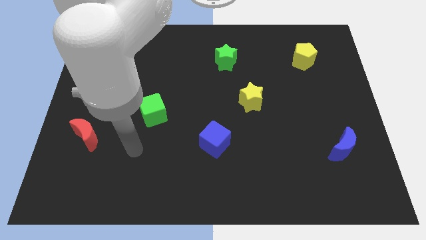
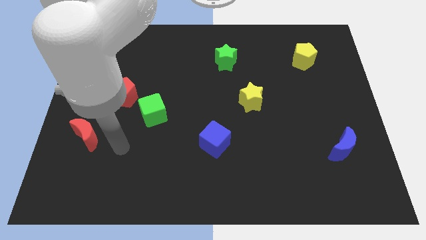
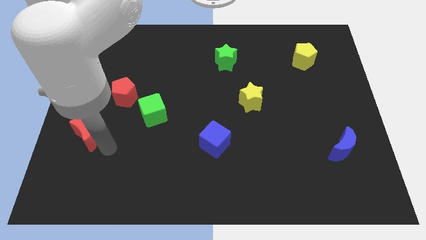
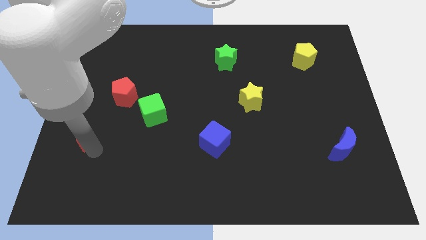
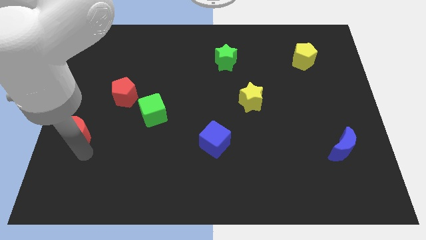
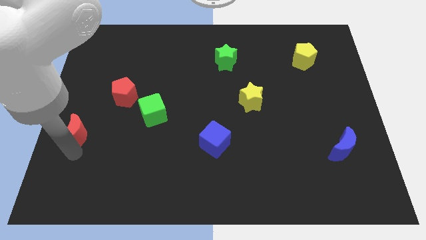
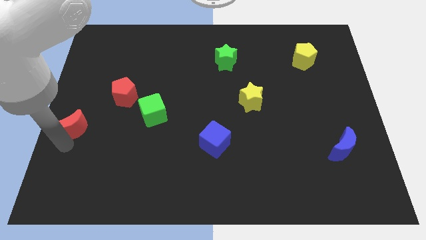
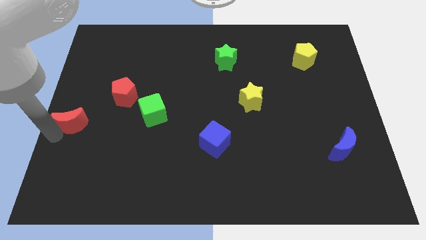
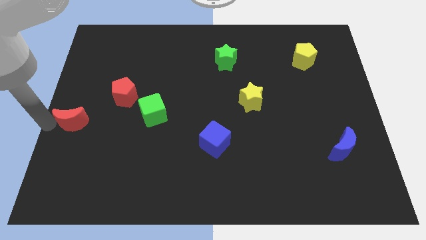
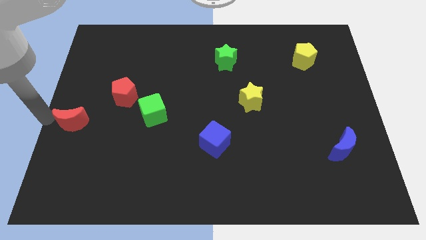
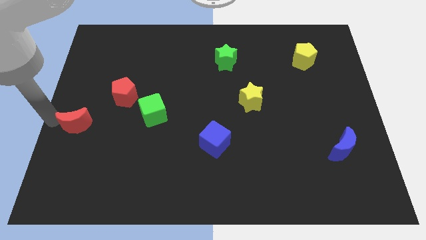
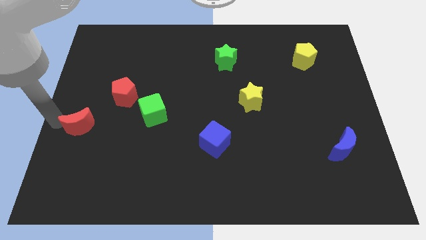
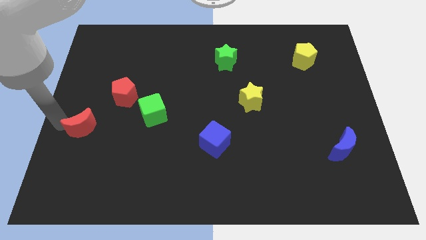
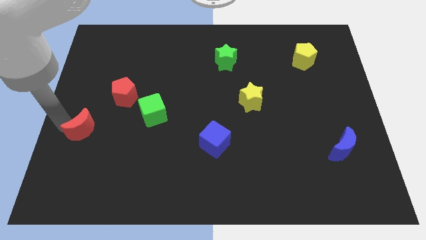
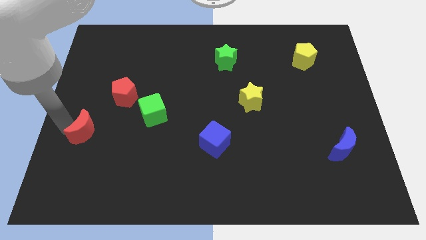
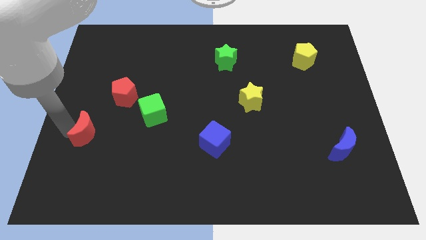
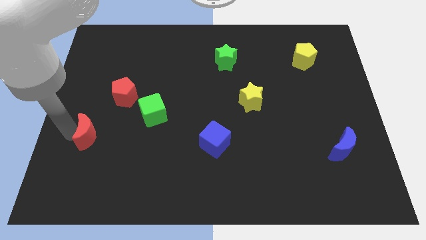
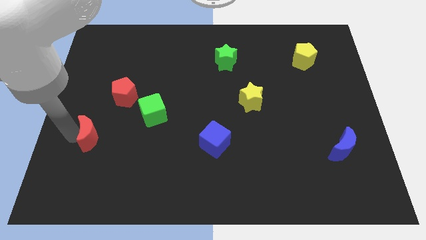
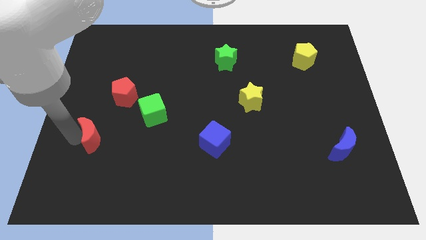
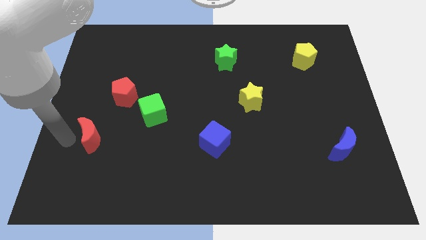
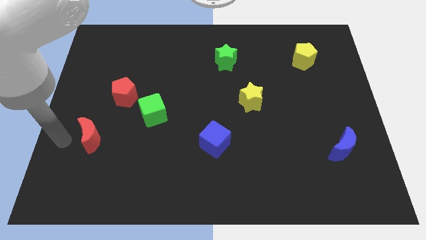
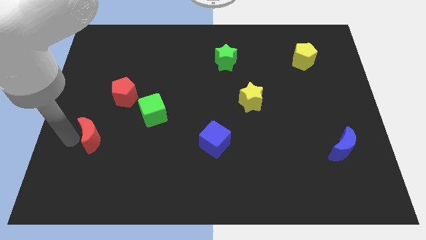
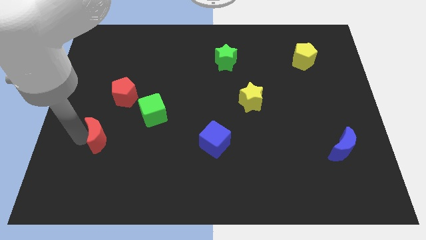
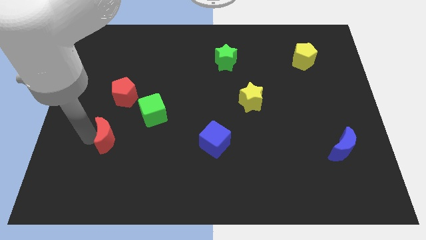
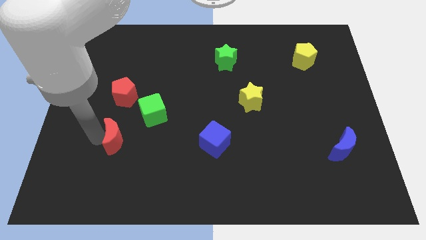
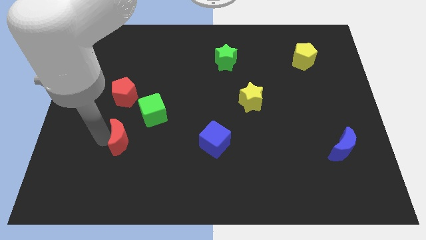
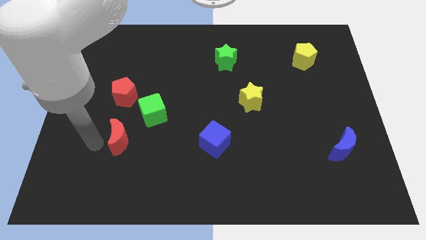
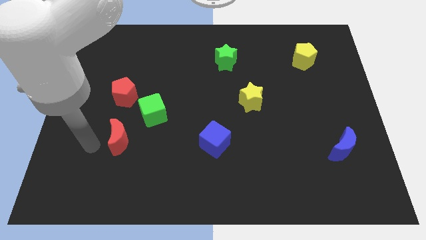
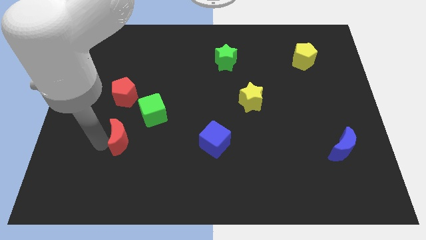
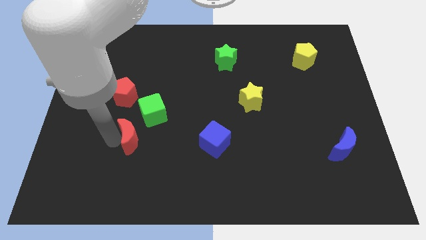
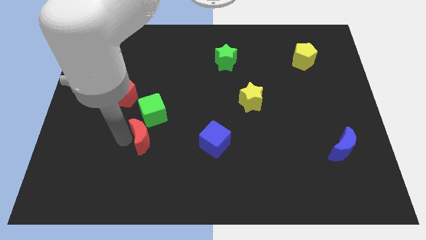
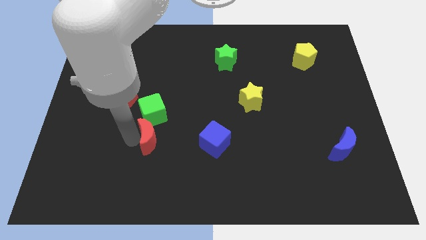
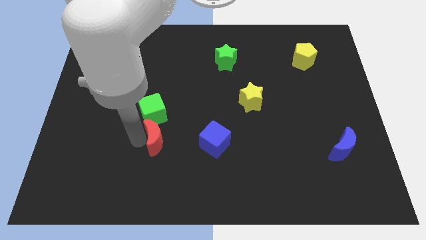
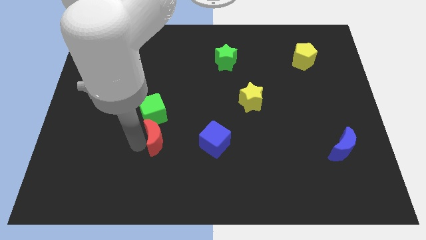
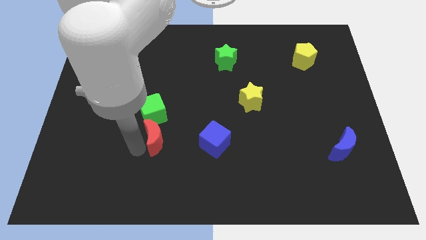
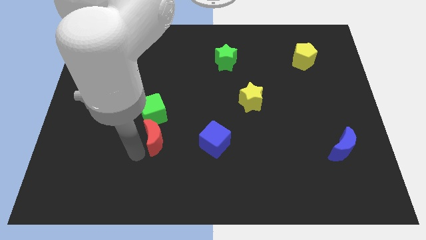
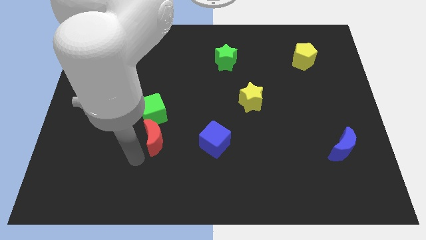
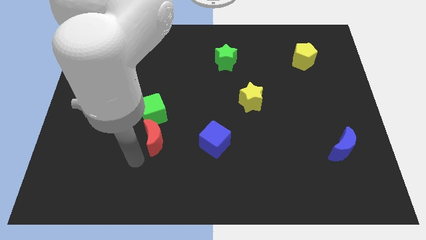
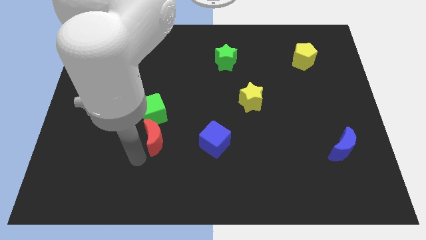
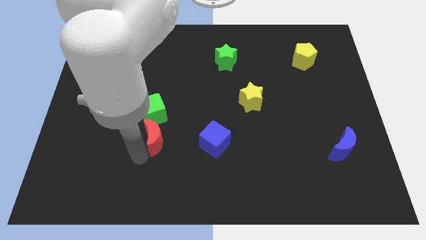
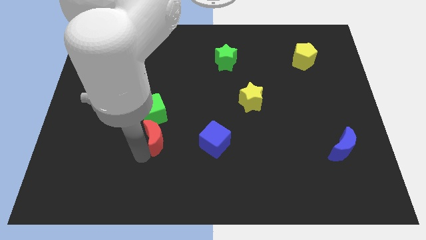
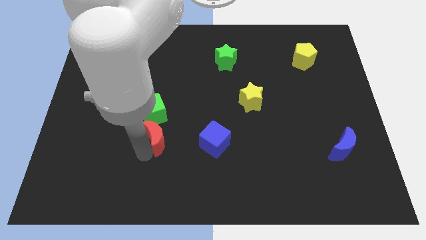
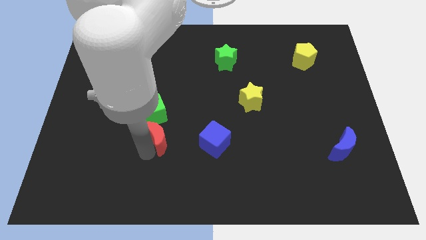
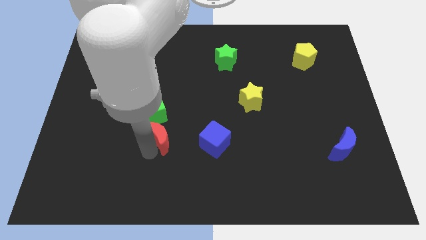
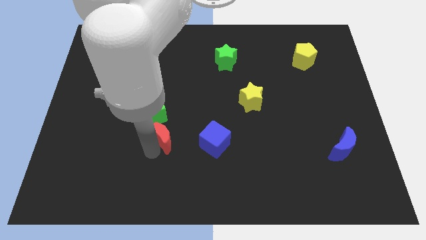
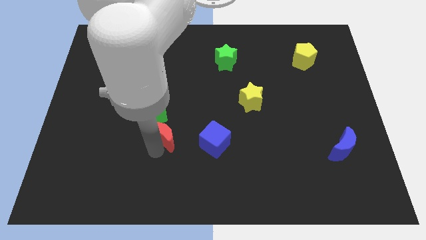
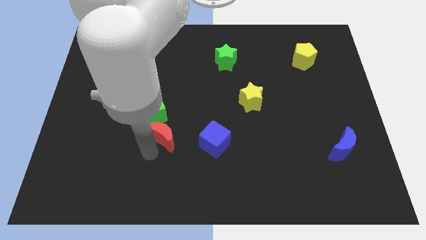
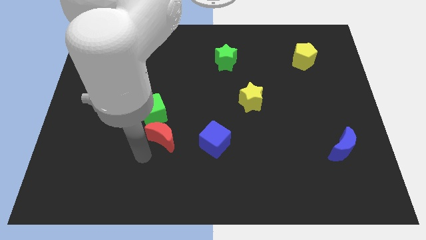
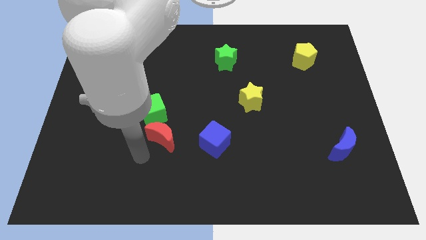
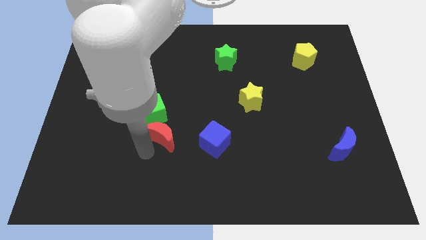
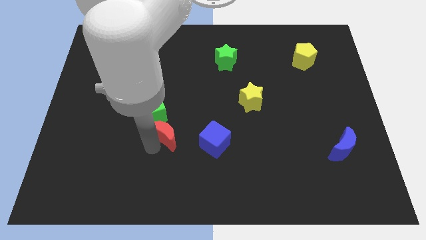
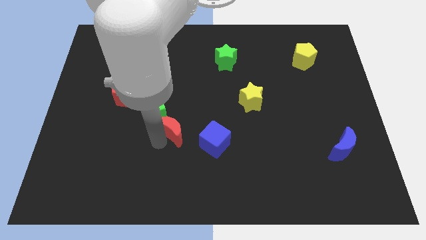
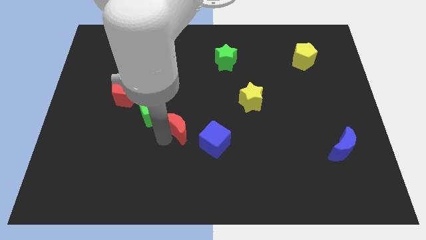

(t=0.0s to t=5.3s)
put the red moon to the right side of the green cube

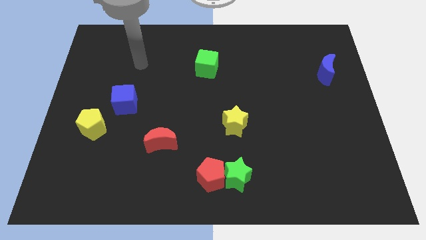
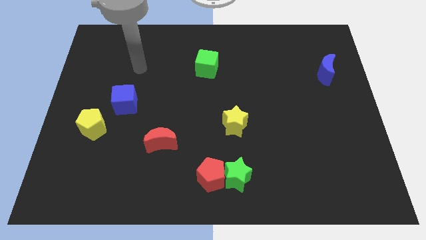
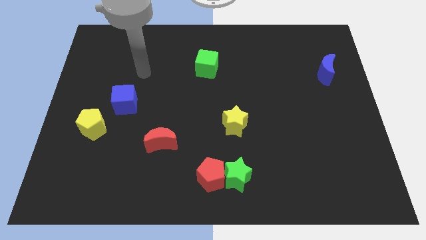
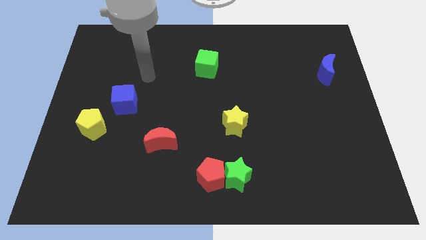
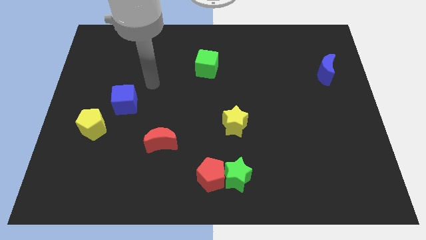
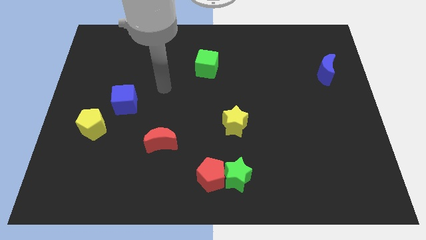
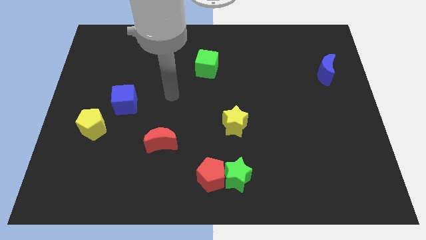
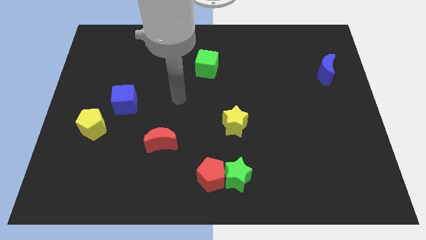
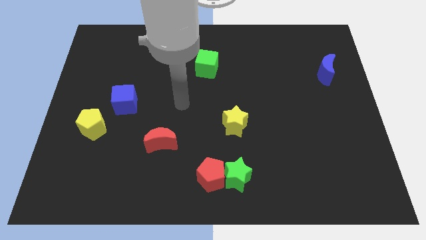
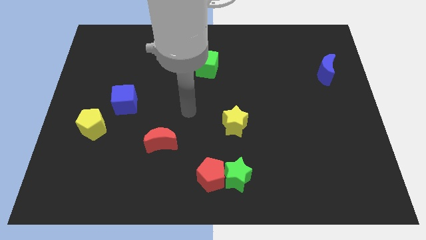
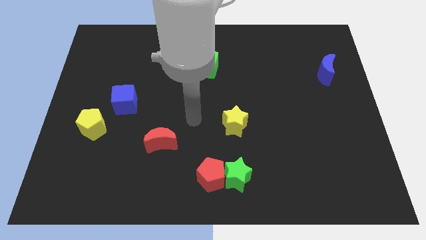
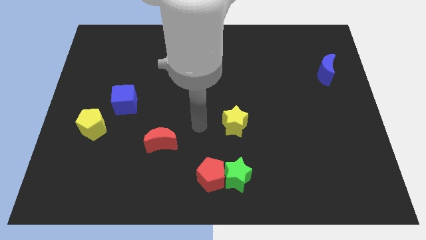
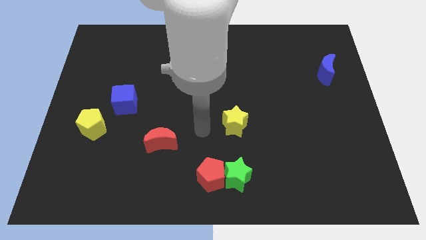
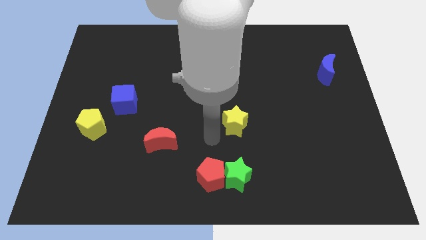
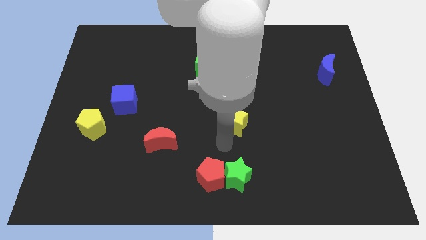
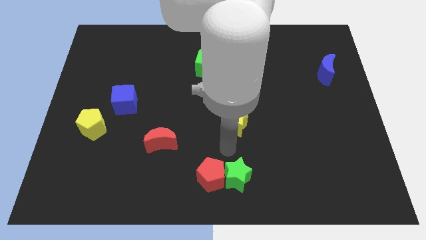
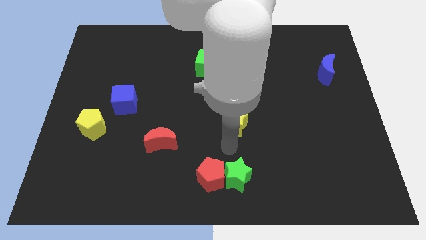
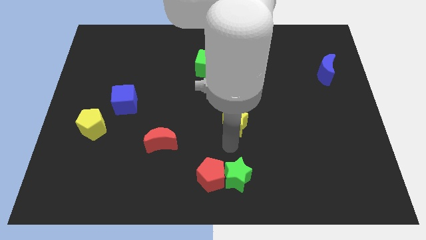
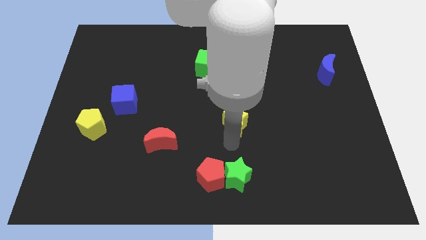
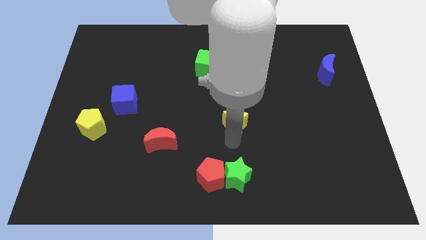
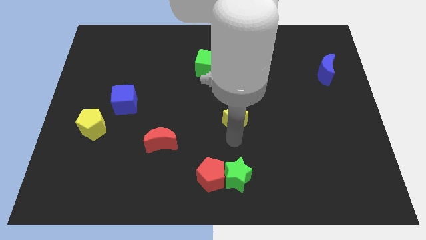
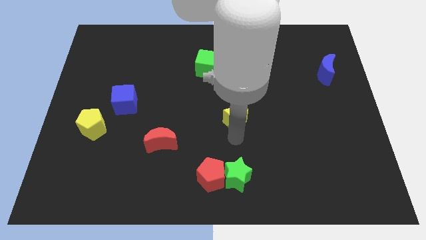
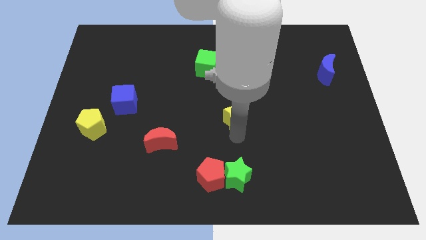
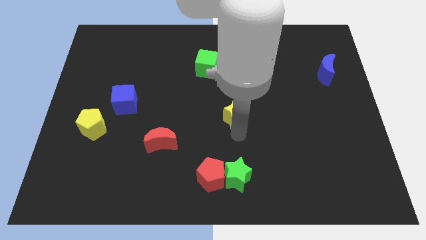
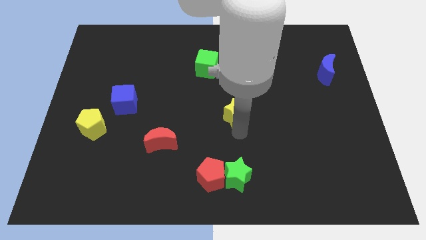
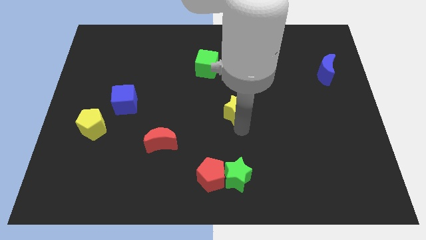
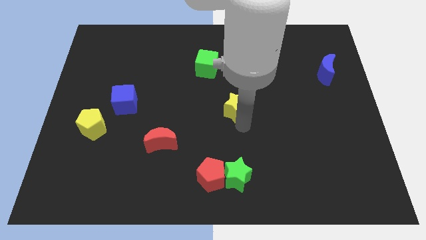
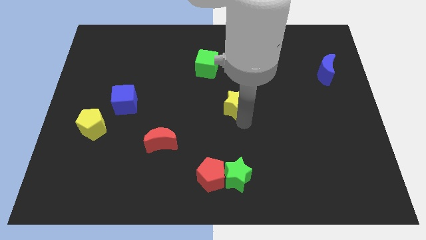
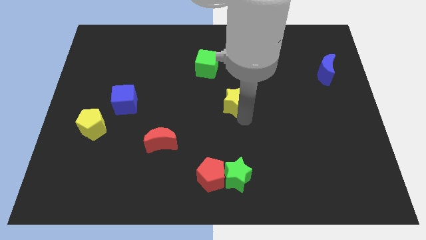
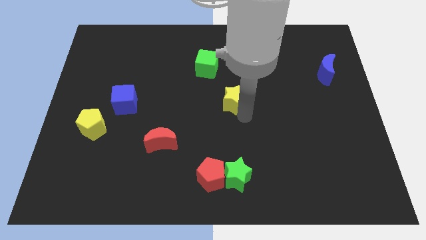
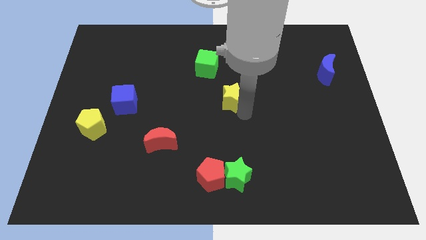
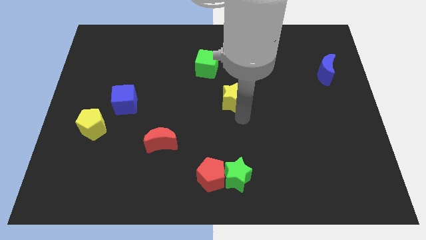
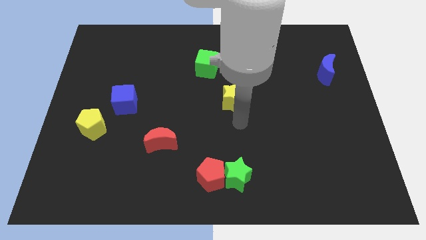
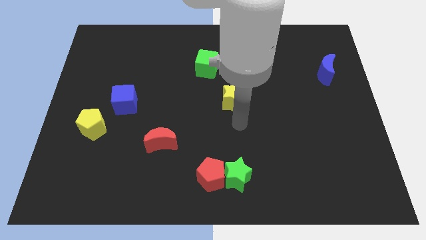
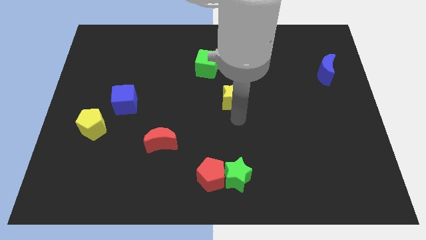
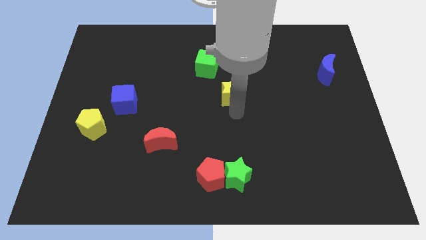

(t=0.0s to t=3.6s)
push the yellow star diagonally down and to the right of the green cube
